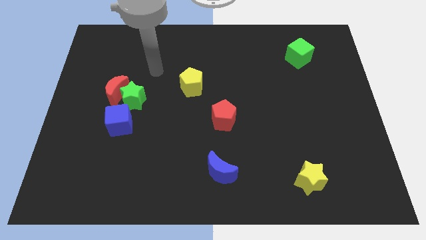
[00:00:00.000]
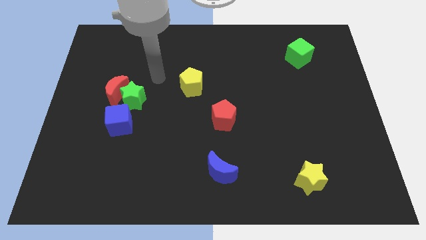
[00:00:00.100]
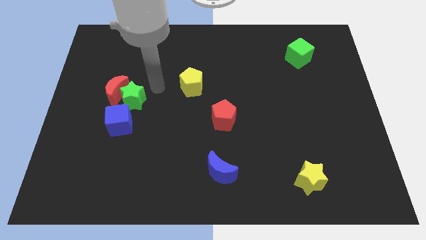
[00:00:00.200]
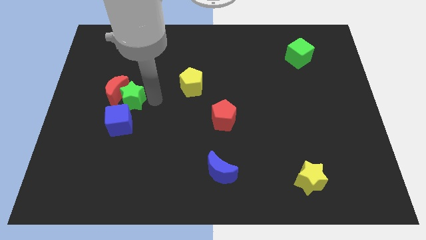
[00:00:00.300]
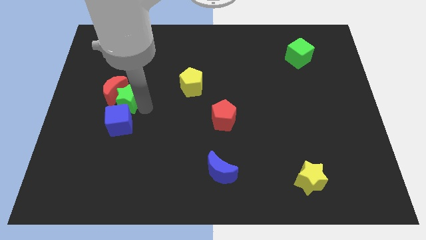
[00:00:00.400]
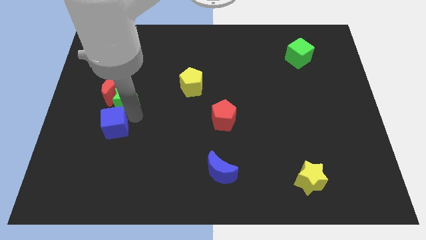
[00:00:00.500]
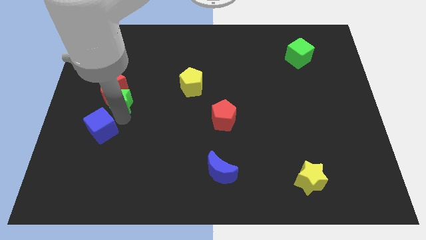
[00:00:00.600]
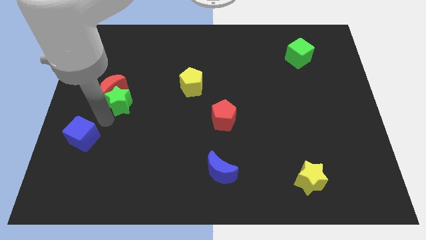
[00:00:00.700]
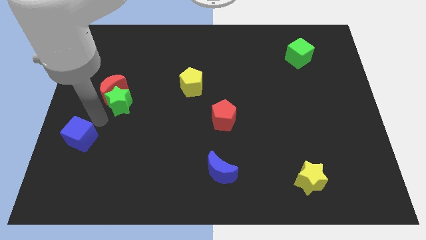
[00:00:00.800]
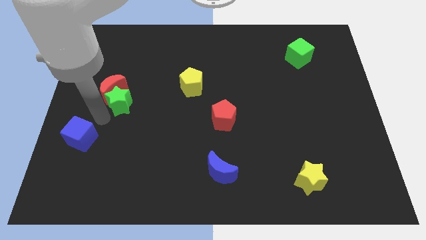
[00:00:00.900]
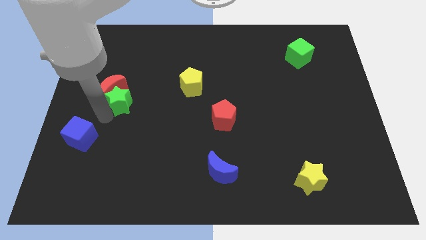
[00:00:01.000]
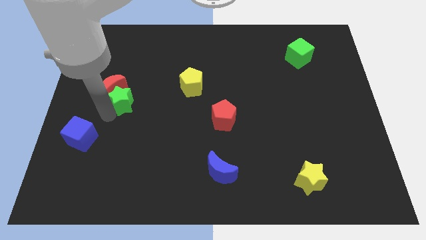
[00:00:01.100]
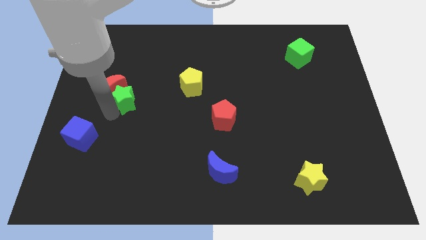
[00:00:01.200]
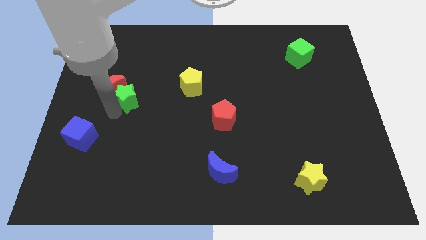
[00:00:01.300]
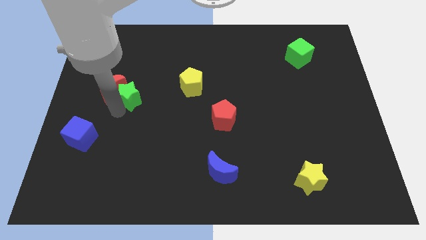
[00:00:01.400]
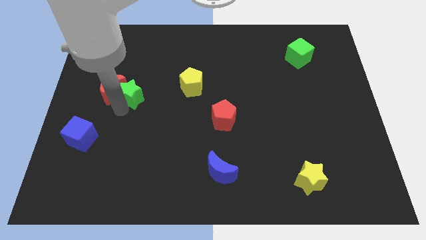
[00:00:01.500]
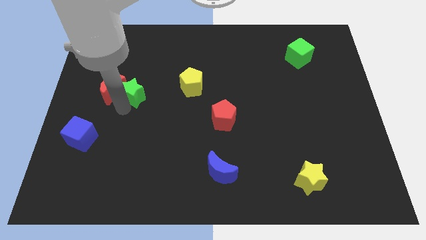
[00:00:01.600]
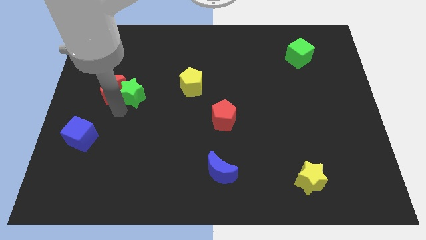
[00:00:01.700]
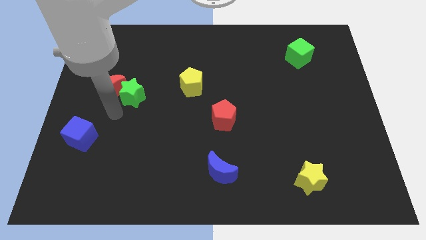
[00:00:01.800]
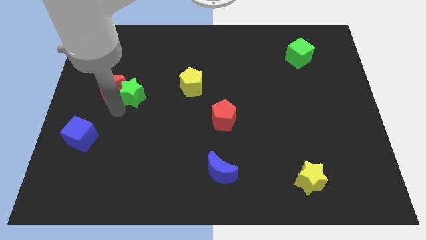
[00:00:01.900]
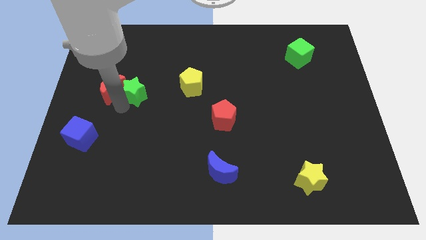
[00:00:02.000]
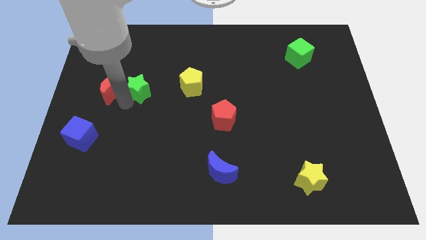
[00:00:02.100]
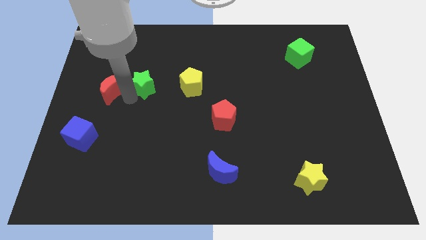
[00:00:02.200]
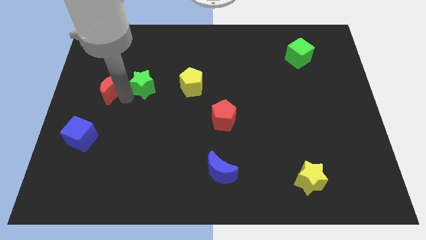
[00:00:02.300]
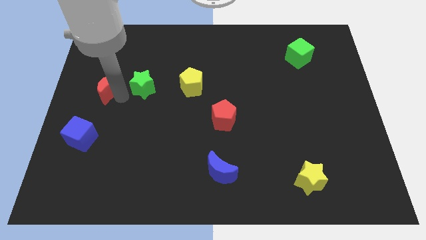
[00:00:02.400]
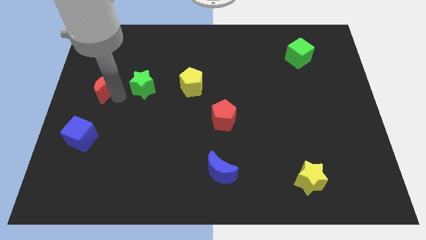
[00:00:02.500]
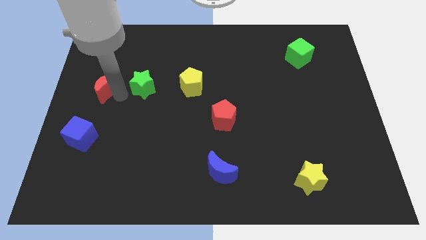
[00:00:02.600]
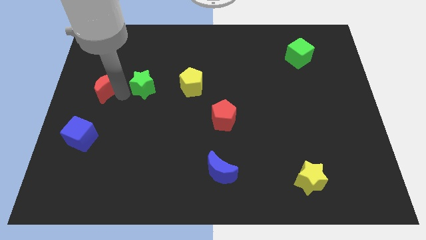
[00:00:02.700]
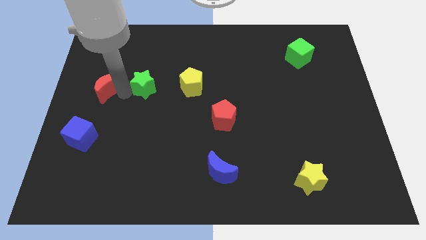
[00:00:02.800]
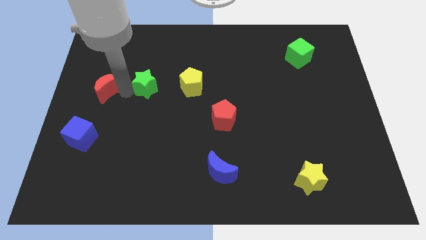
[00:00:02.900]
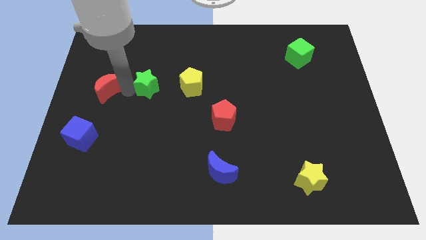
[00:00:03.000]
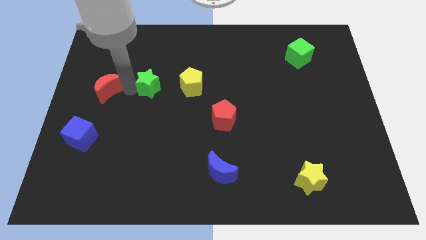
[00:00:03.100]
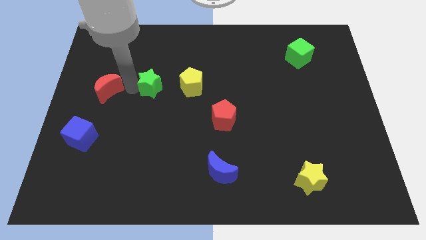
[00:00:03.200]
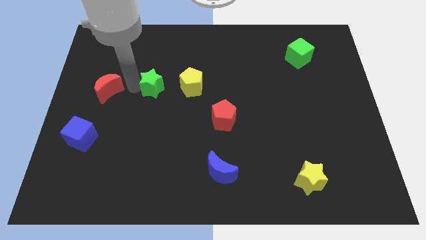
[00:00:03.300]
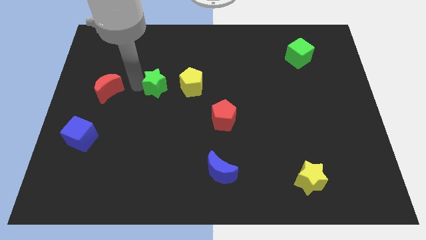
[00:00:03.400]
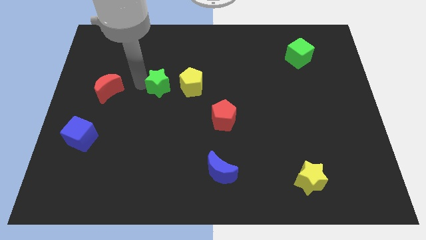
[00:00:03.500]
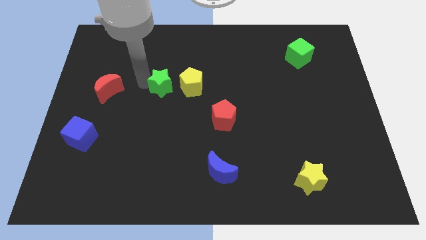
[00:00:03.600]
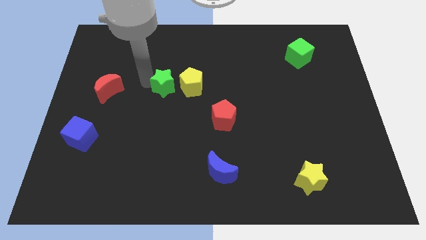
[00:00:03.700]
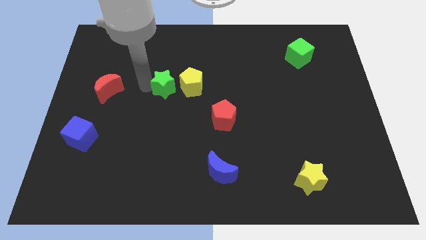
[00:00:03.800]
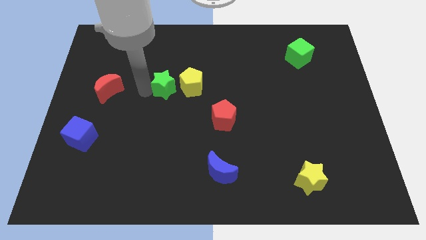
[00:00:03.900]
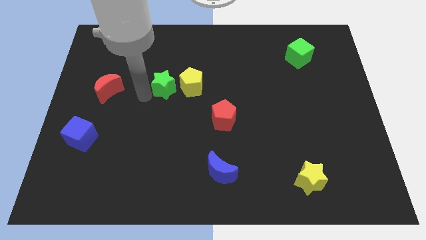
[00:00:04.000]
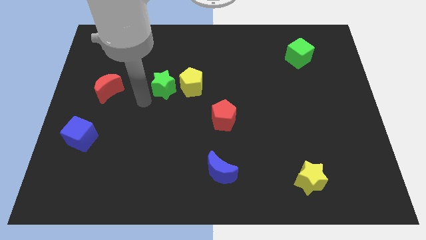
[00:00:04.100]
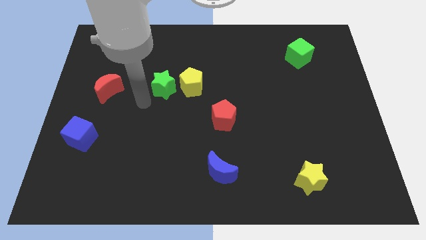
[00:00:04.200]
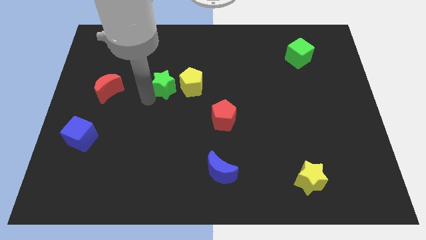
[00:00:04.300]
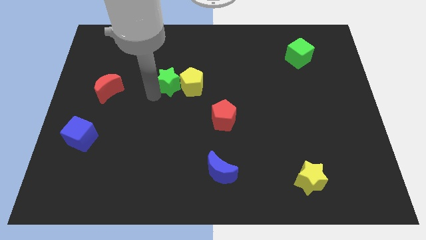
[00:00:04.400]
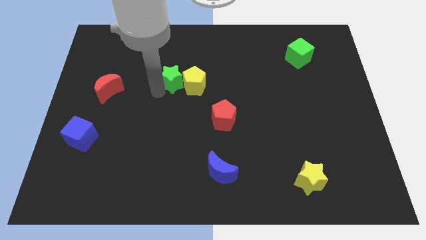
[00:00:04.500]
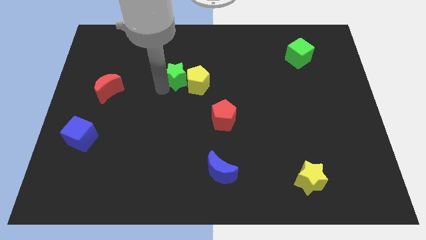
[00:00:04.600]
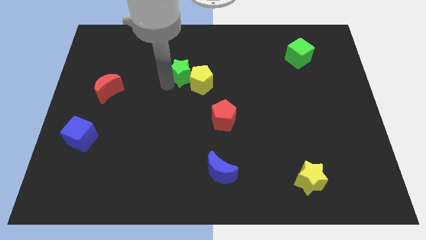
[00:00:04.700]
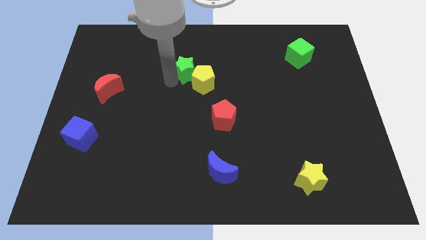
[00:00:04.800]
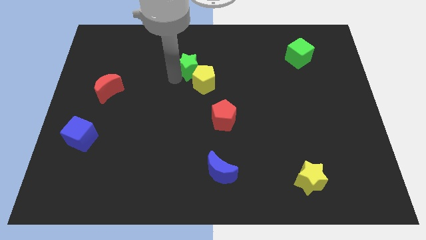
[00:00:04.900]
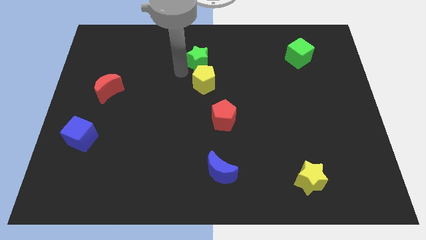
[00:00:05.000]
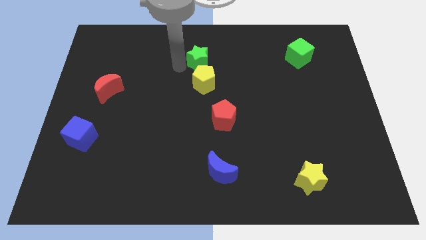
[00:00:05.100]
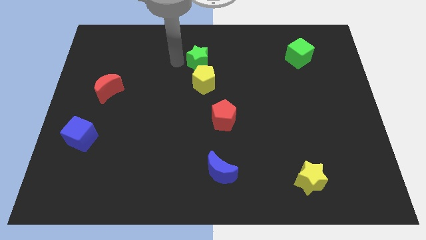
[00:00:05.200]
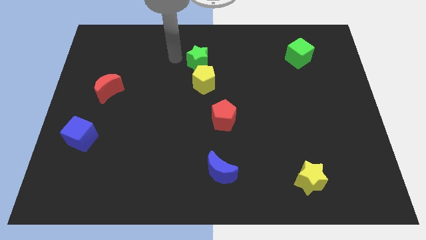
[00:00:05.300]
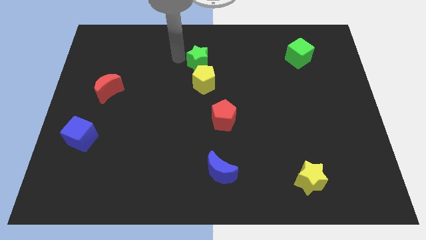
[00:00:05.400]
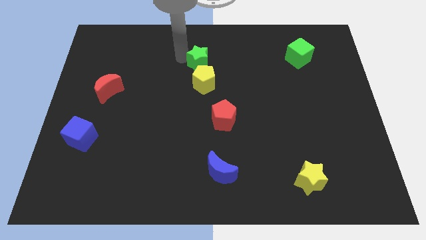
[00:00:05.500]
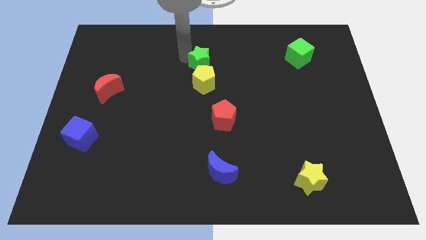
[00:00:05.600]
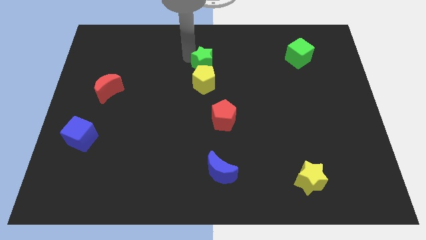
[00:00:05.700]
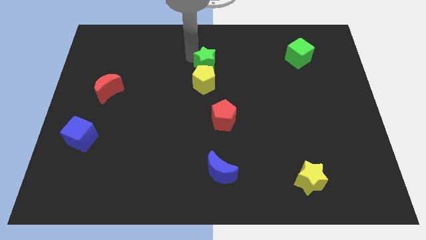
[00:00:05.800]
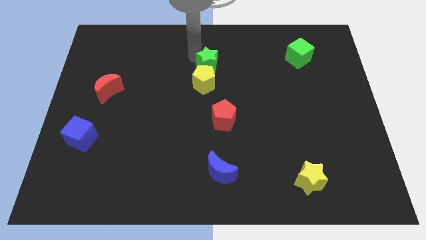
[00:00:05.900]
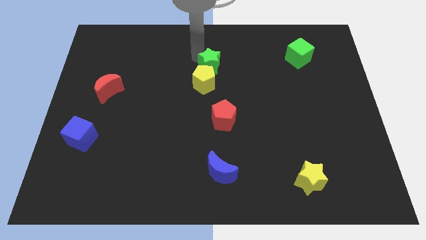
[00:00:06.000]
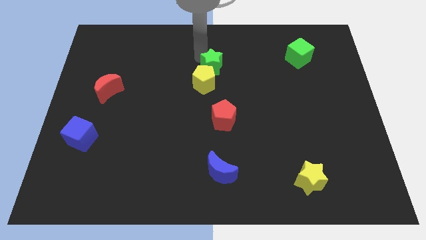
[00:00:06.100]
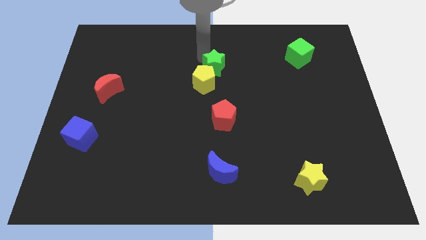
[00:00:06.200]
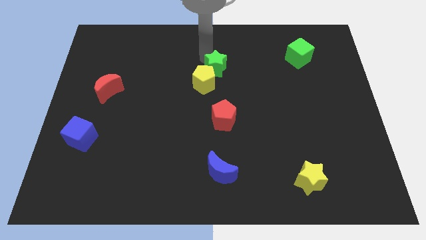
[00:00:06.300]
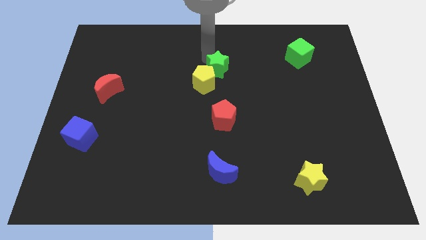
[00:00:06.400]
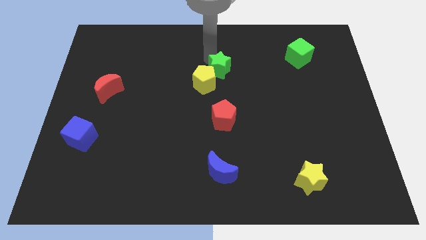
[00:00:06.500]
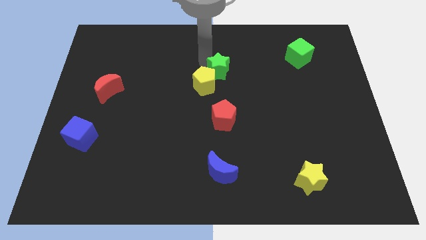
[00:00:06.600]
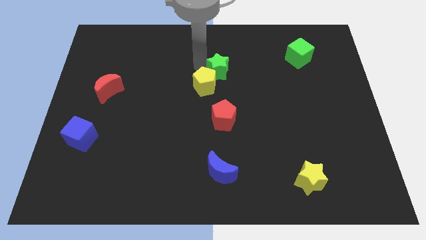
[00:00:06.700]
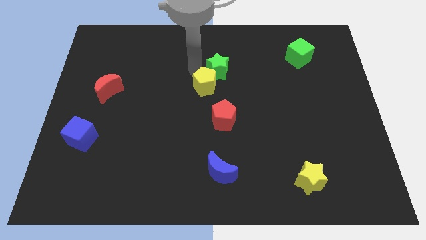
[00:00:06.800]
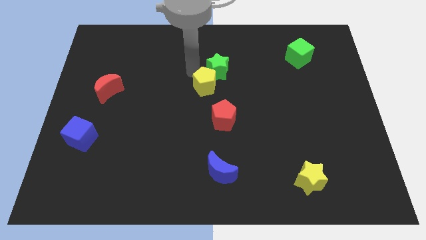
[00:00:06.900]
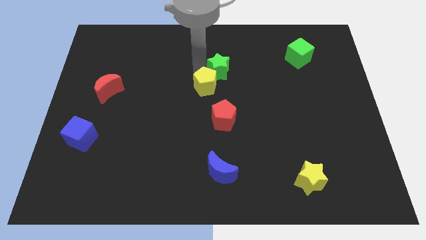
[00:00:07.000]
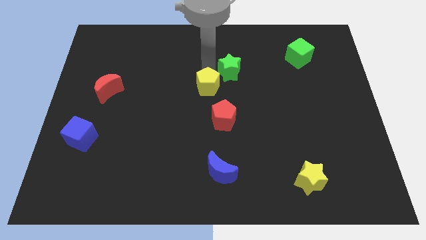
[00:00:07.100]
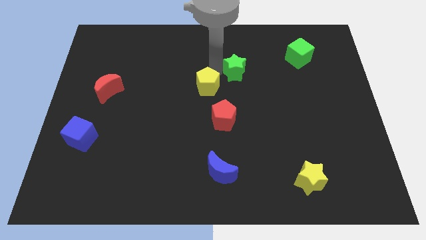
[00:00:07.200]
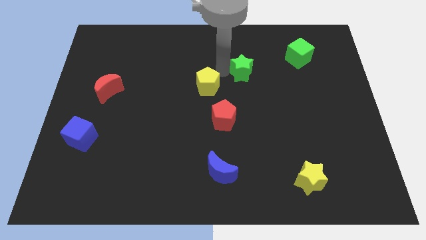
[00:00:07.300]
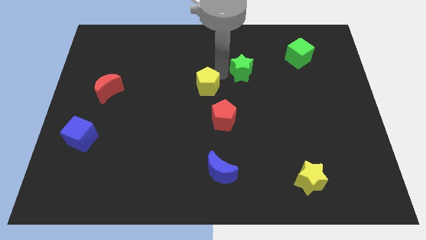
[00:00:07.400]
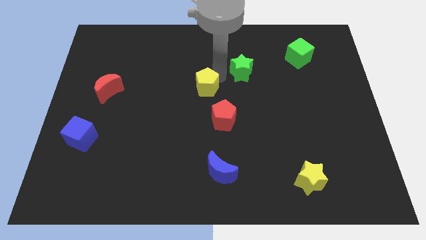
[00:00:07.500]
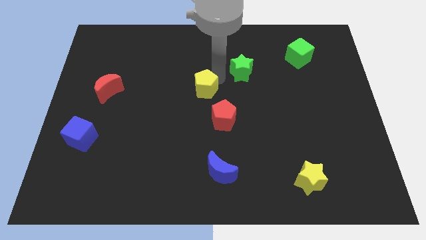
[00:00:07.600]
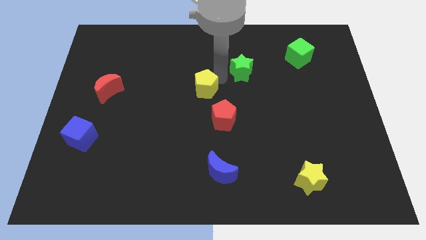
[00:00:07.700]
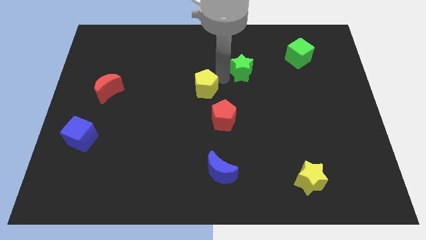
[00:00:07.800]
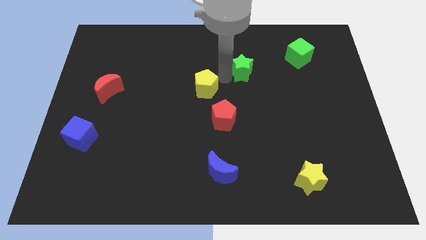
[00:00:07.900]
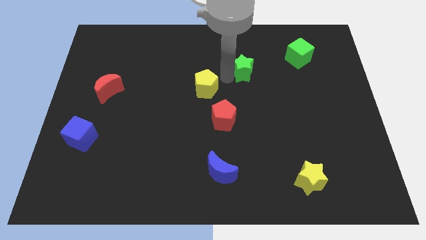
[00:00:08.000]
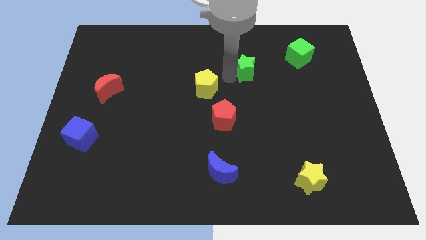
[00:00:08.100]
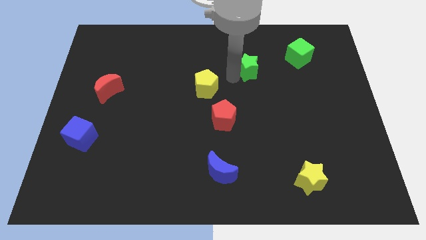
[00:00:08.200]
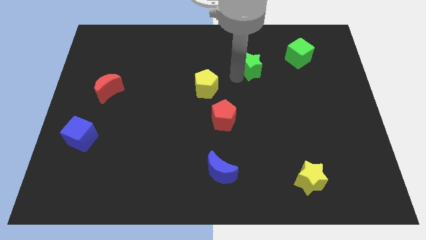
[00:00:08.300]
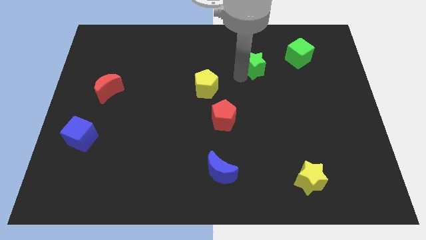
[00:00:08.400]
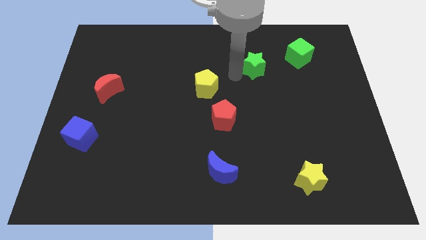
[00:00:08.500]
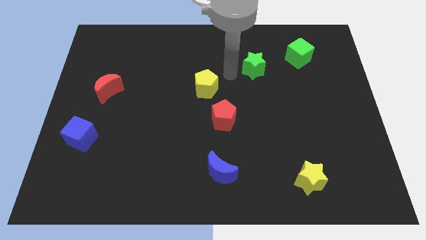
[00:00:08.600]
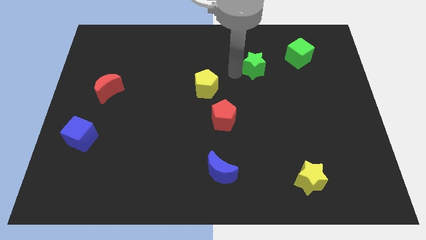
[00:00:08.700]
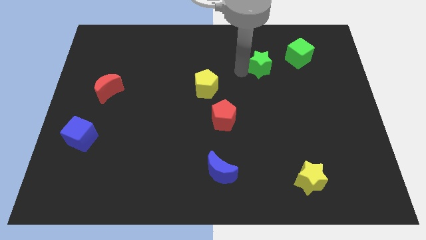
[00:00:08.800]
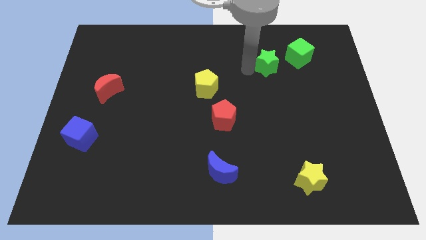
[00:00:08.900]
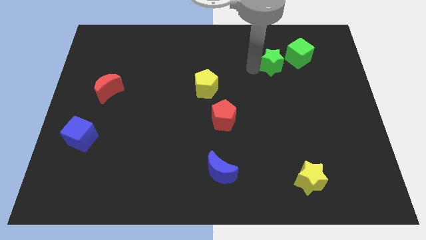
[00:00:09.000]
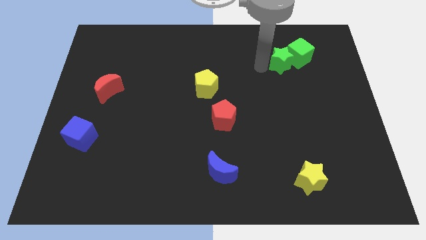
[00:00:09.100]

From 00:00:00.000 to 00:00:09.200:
put the green star close to the green cube
